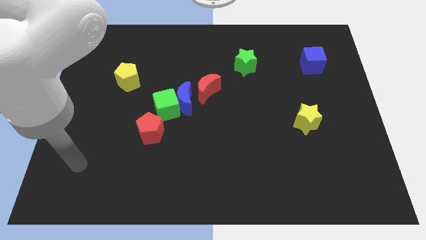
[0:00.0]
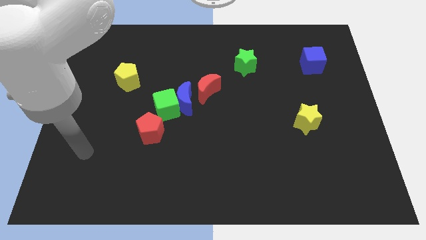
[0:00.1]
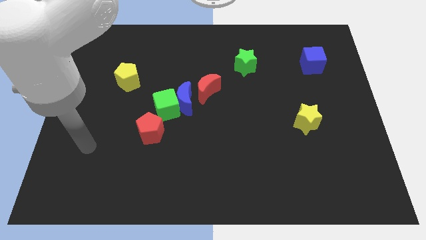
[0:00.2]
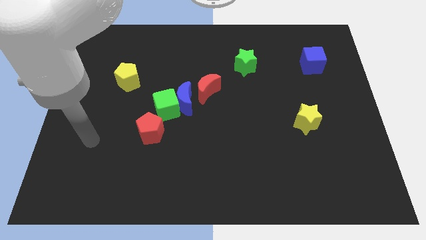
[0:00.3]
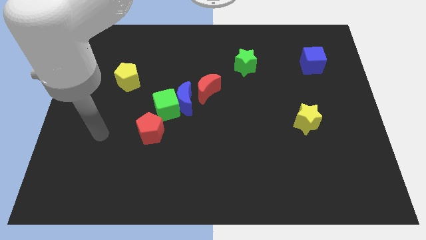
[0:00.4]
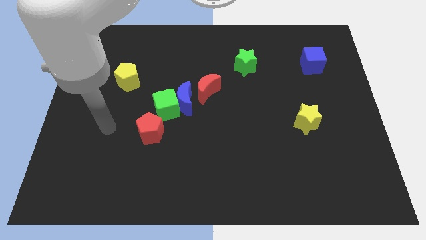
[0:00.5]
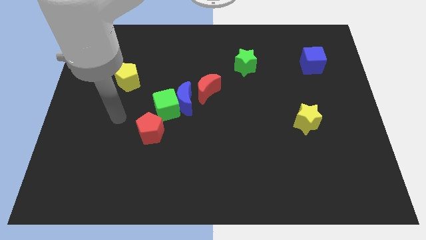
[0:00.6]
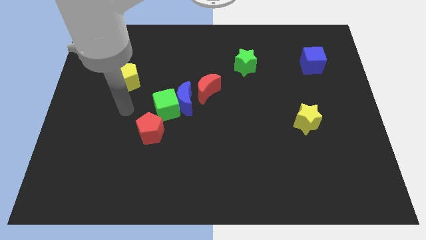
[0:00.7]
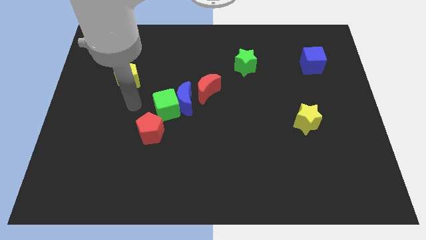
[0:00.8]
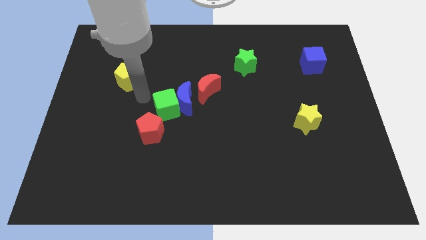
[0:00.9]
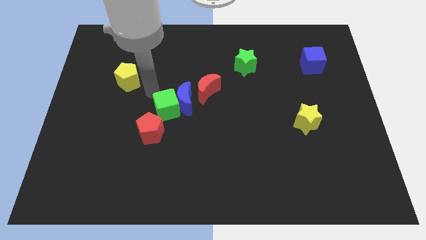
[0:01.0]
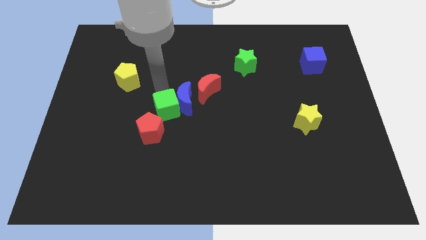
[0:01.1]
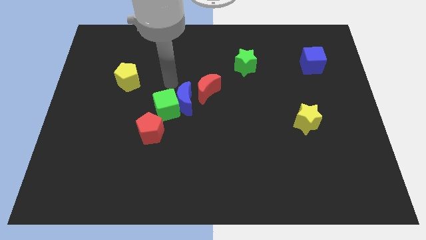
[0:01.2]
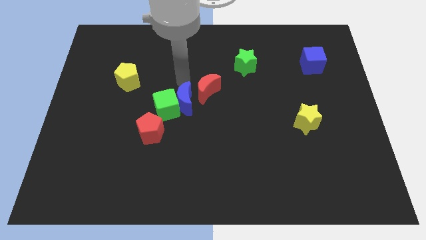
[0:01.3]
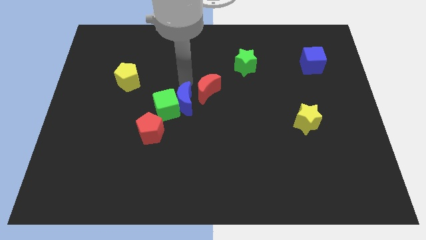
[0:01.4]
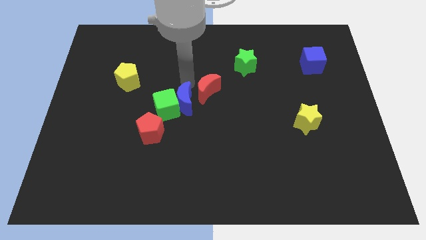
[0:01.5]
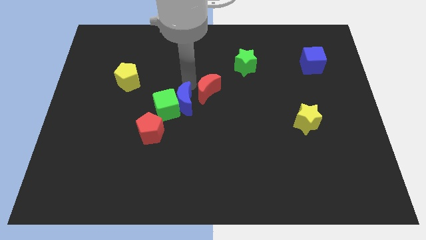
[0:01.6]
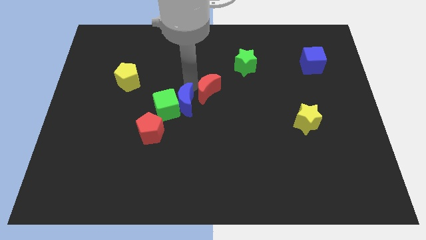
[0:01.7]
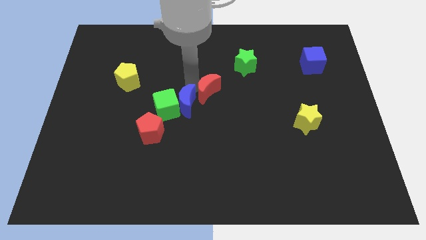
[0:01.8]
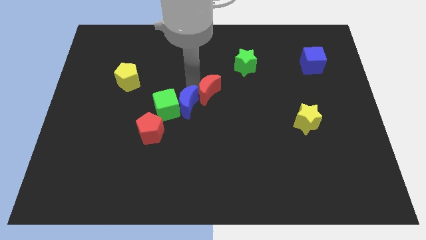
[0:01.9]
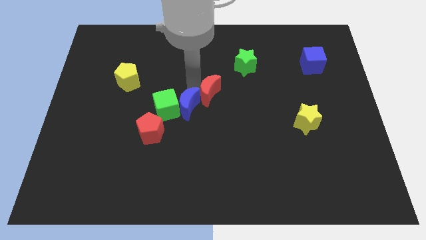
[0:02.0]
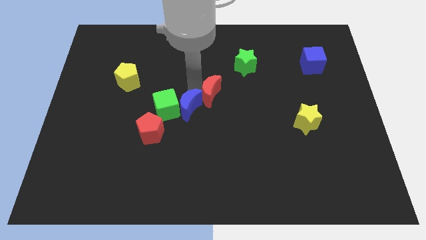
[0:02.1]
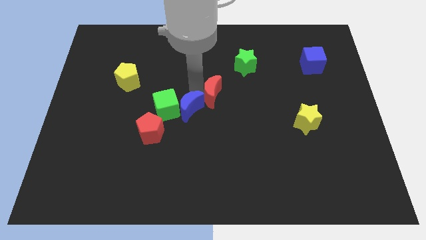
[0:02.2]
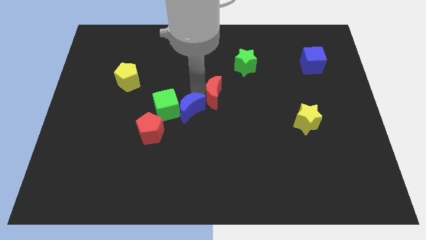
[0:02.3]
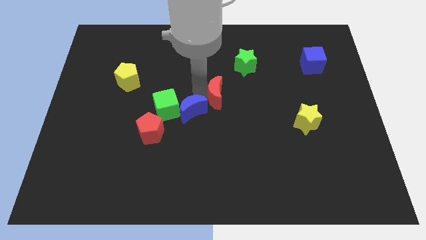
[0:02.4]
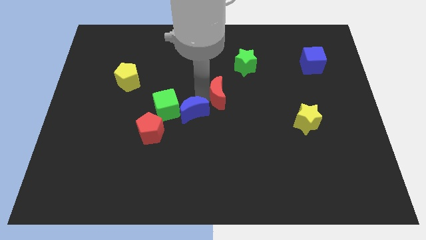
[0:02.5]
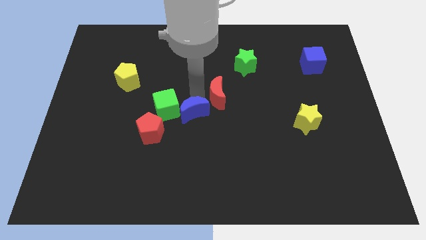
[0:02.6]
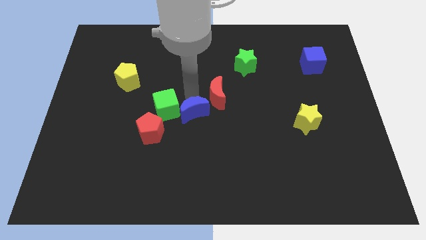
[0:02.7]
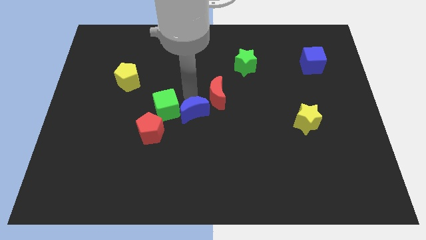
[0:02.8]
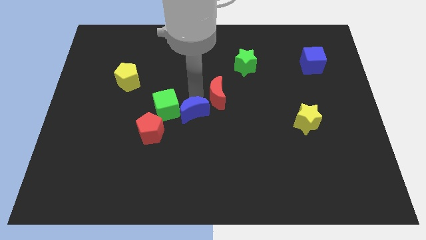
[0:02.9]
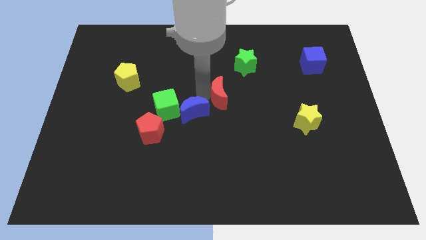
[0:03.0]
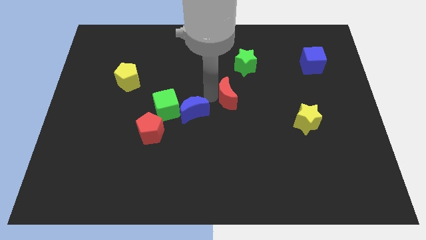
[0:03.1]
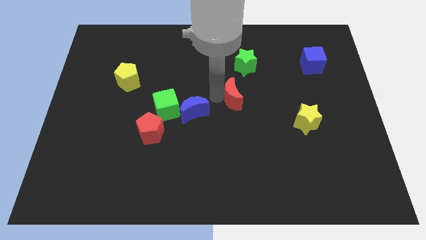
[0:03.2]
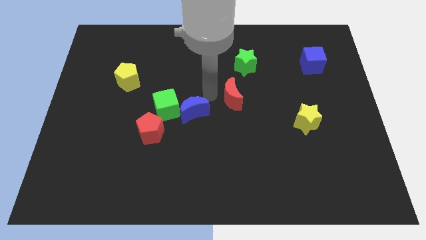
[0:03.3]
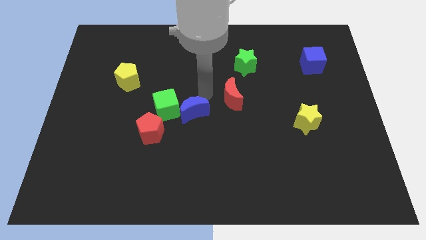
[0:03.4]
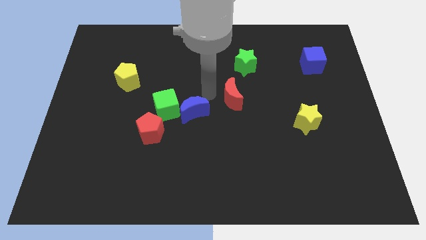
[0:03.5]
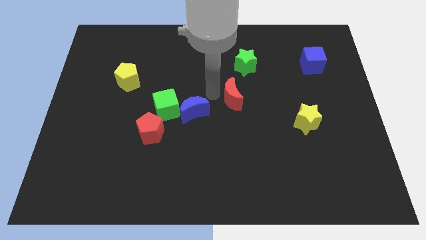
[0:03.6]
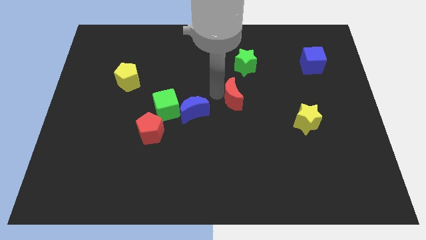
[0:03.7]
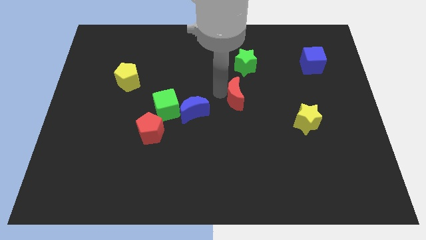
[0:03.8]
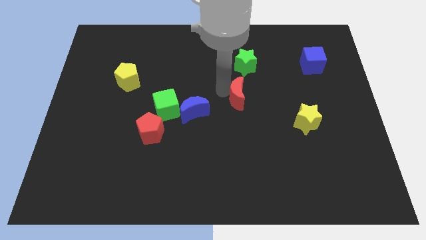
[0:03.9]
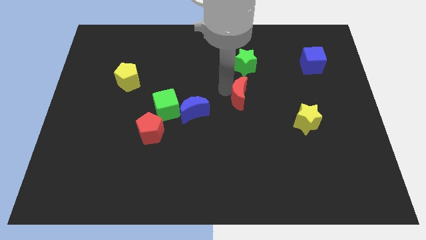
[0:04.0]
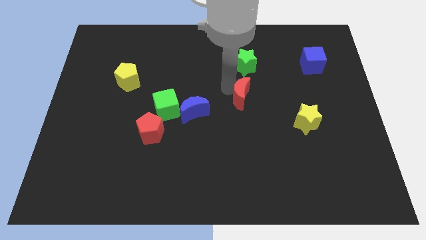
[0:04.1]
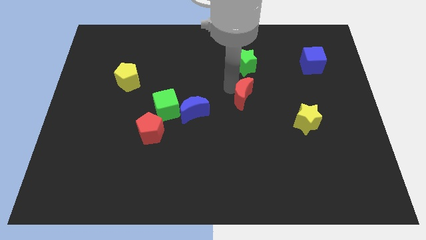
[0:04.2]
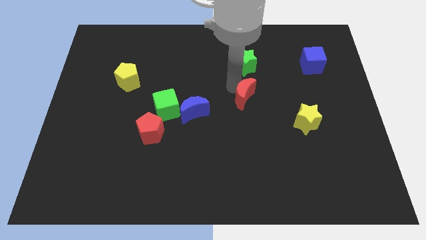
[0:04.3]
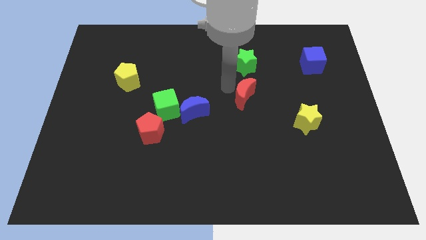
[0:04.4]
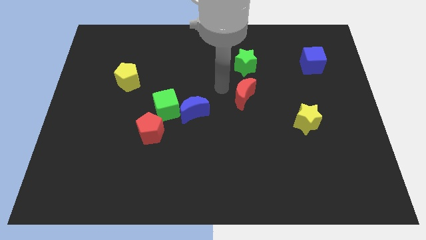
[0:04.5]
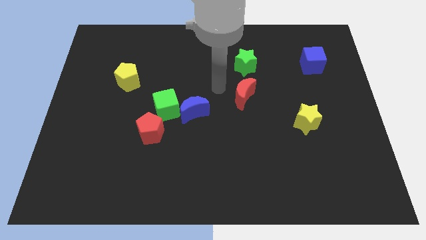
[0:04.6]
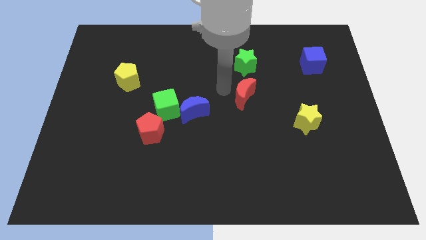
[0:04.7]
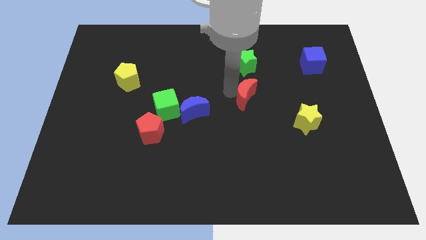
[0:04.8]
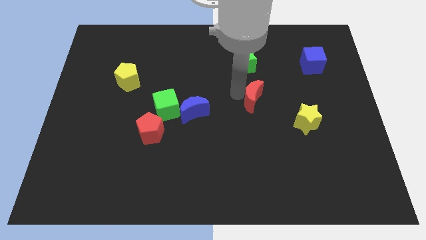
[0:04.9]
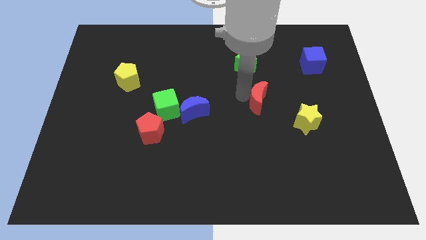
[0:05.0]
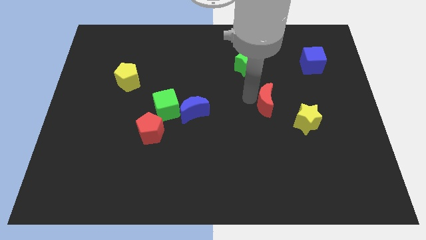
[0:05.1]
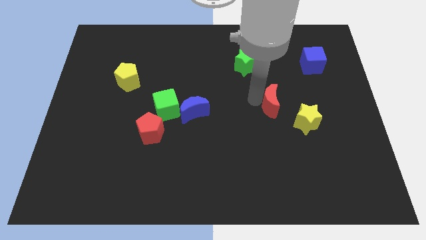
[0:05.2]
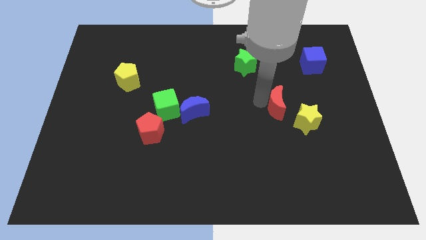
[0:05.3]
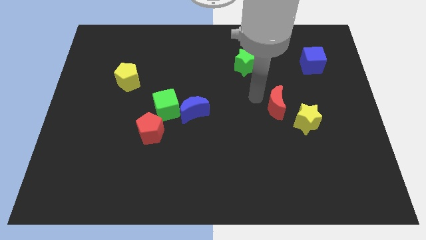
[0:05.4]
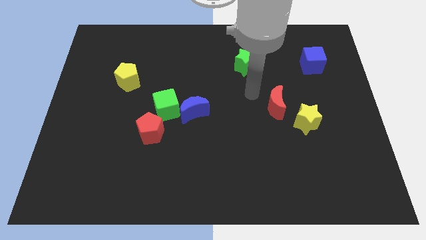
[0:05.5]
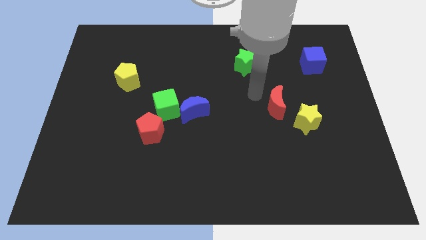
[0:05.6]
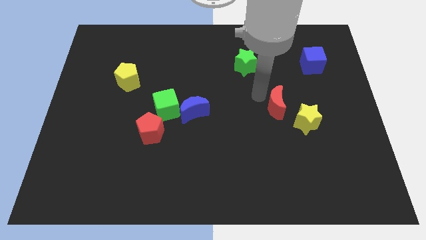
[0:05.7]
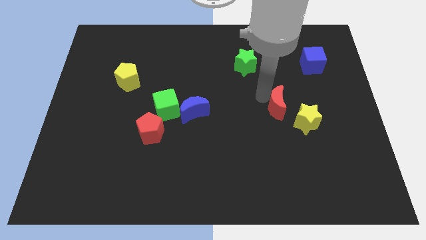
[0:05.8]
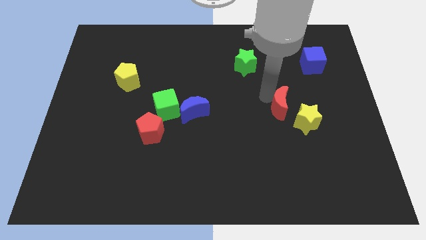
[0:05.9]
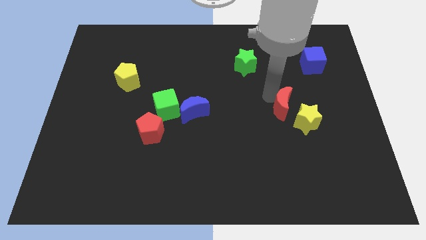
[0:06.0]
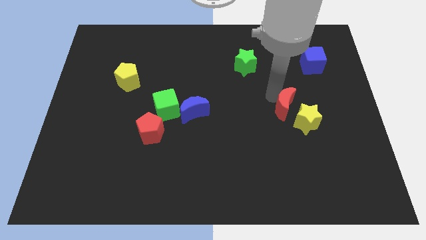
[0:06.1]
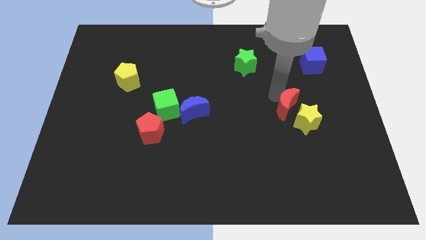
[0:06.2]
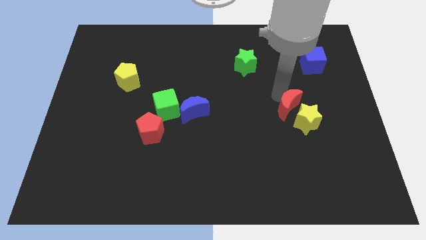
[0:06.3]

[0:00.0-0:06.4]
push the red moon next to the yellow star

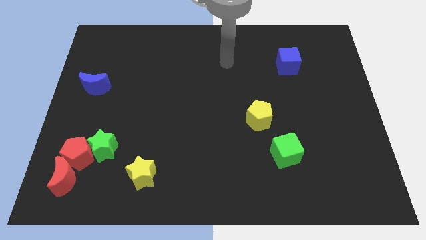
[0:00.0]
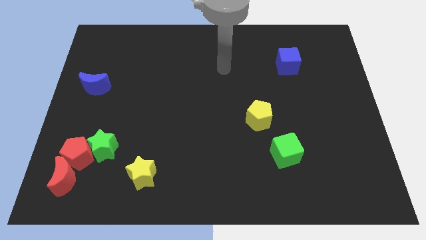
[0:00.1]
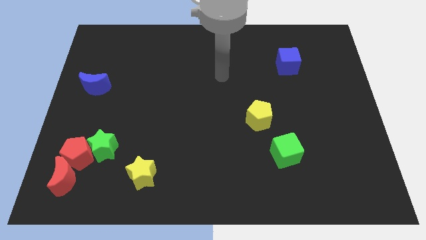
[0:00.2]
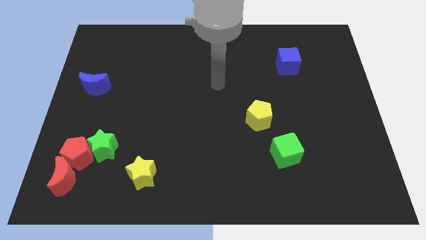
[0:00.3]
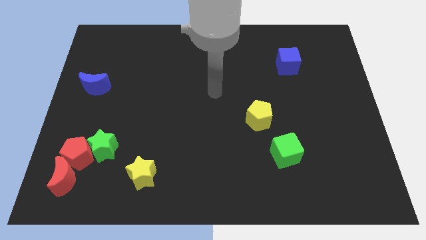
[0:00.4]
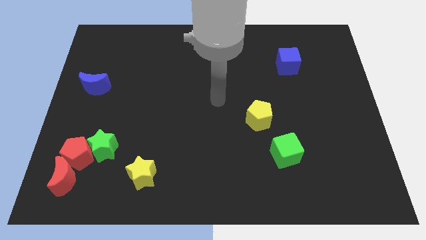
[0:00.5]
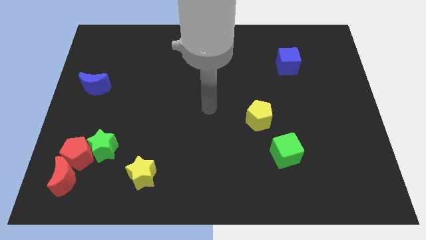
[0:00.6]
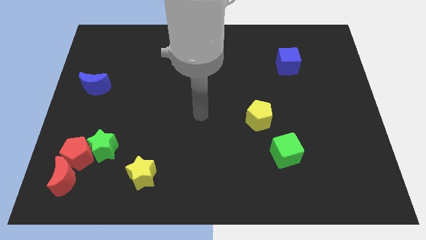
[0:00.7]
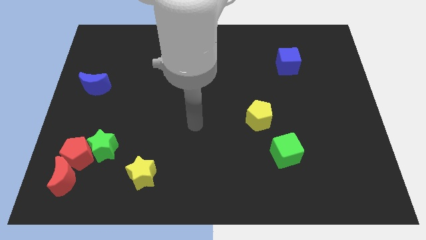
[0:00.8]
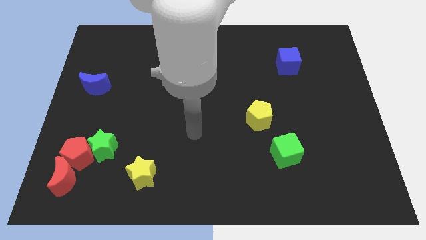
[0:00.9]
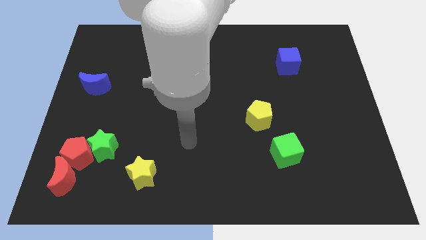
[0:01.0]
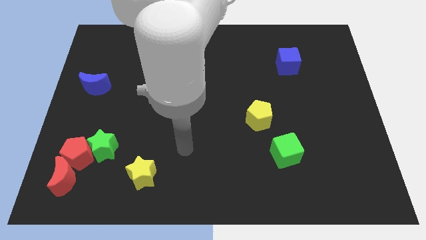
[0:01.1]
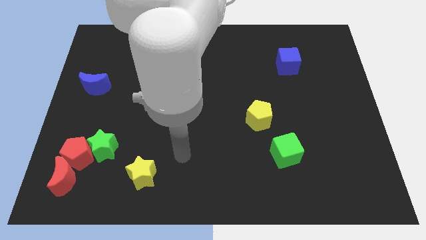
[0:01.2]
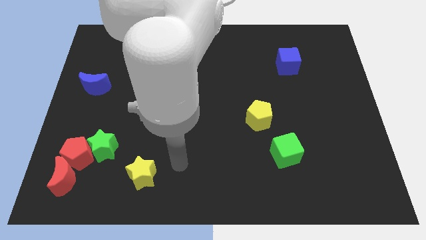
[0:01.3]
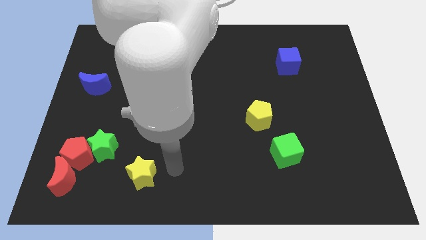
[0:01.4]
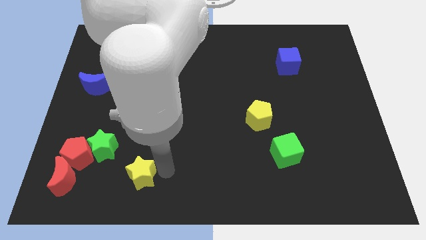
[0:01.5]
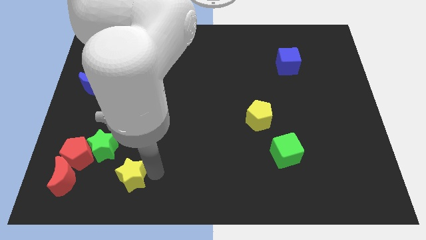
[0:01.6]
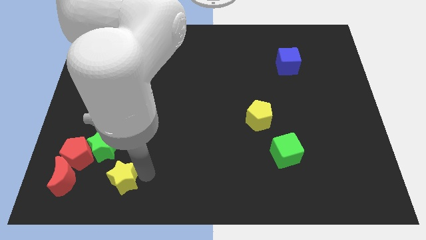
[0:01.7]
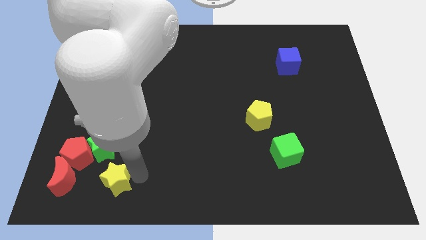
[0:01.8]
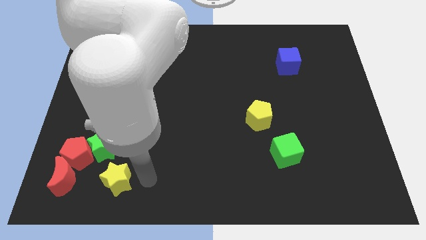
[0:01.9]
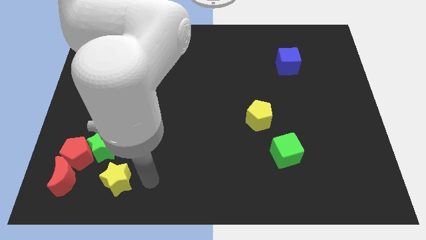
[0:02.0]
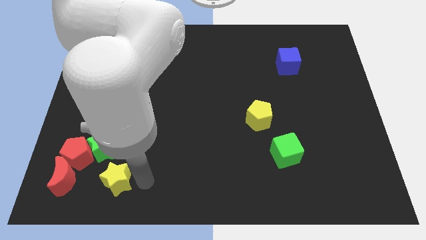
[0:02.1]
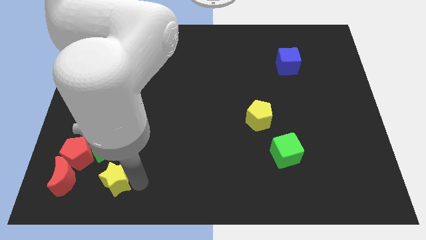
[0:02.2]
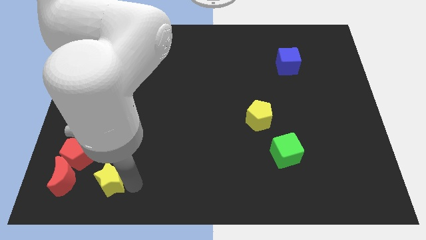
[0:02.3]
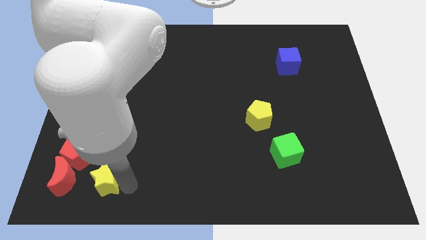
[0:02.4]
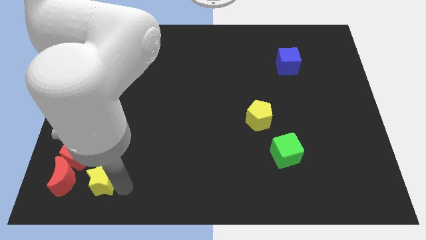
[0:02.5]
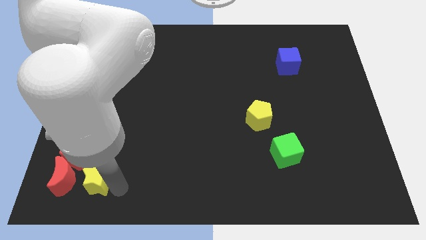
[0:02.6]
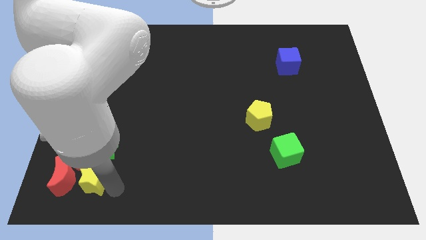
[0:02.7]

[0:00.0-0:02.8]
move the yellow star to the red moon
